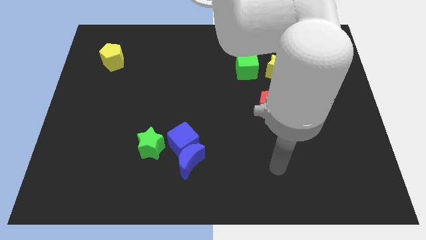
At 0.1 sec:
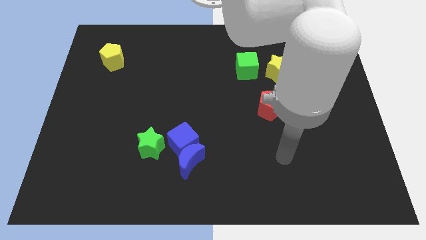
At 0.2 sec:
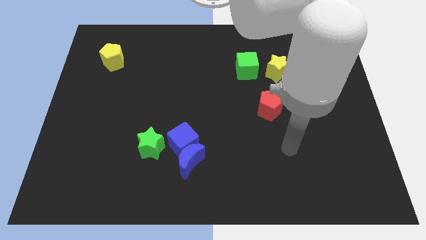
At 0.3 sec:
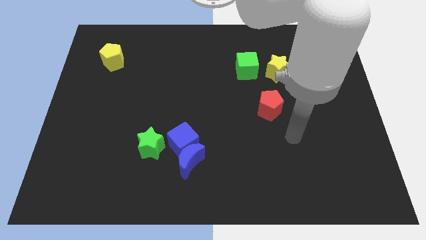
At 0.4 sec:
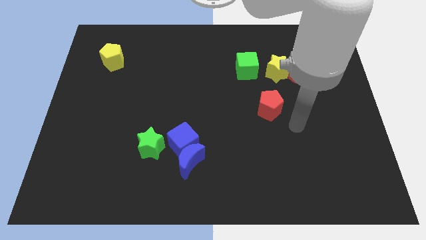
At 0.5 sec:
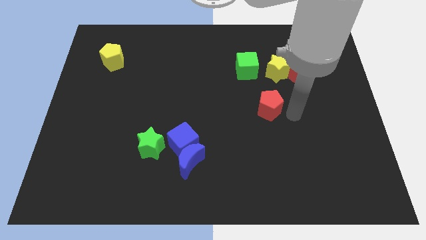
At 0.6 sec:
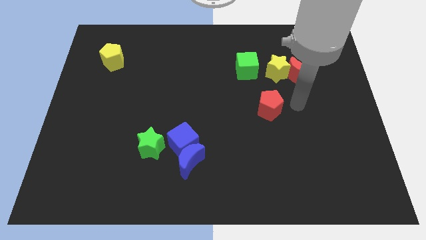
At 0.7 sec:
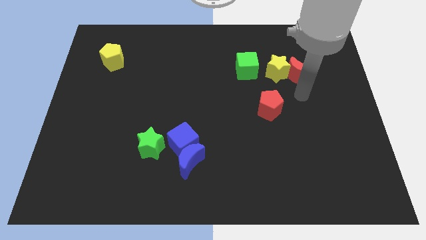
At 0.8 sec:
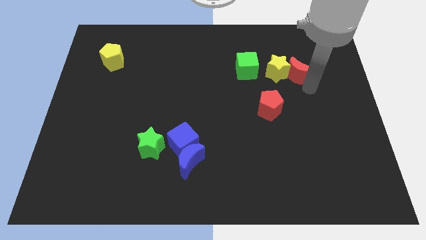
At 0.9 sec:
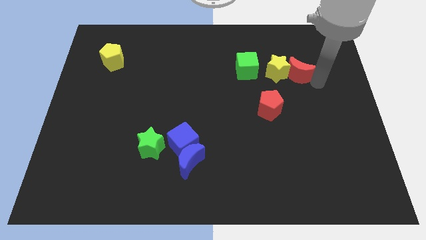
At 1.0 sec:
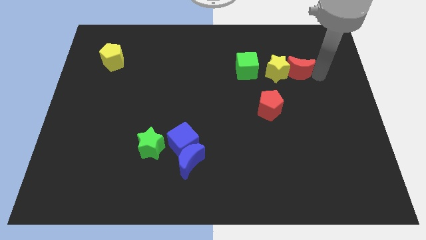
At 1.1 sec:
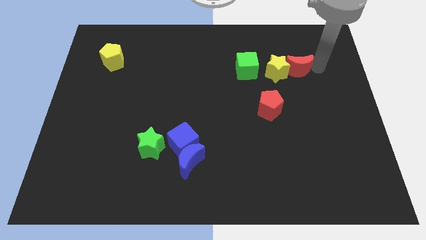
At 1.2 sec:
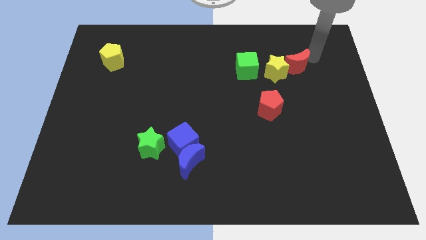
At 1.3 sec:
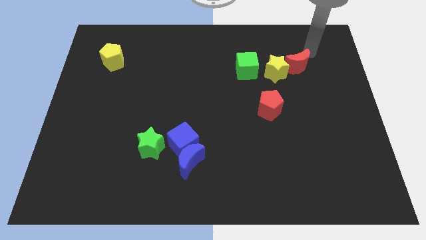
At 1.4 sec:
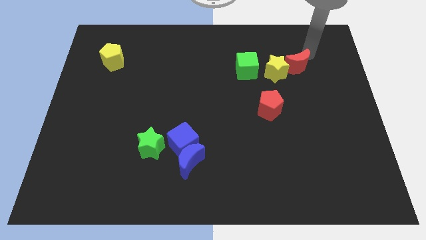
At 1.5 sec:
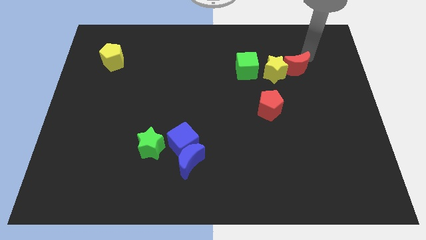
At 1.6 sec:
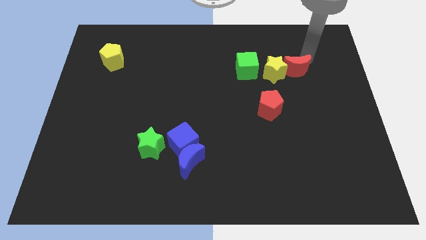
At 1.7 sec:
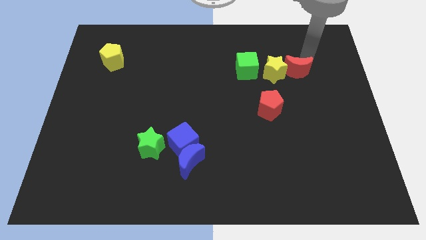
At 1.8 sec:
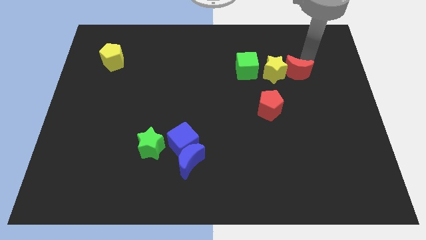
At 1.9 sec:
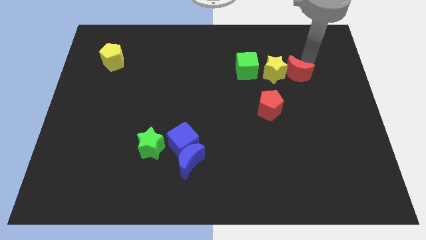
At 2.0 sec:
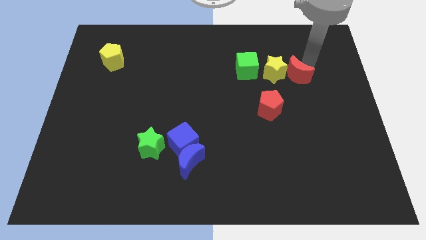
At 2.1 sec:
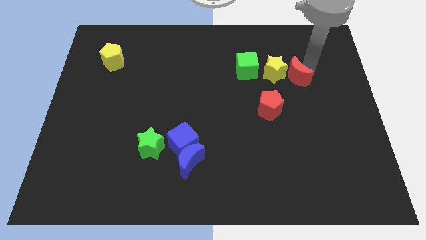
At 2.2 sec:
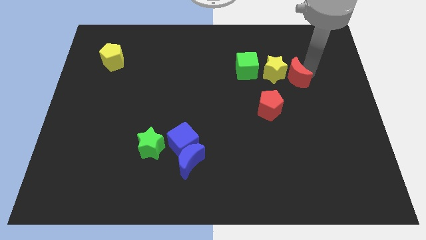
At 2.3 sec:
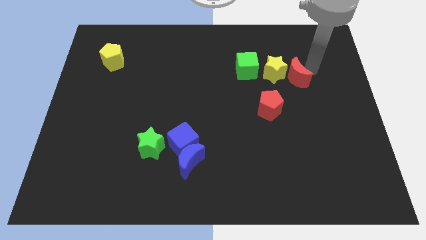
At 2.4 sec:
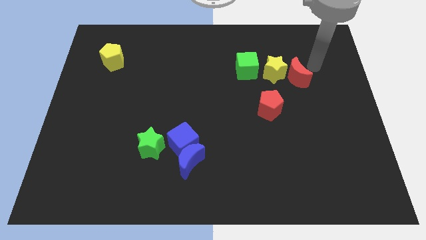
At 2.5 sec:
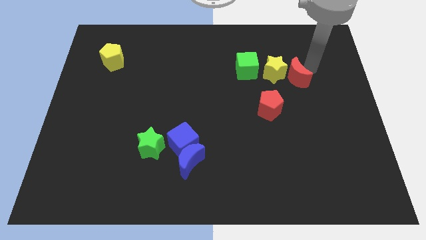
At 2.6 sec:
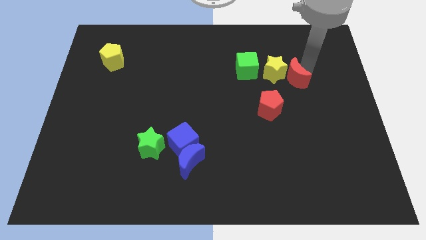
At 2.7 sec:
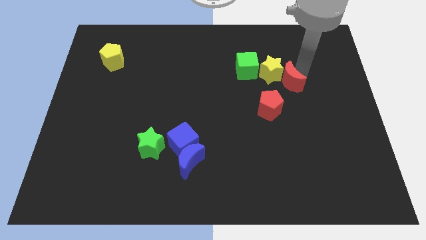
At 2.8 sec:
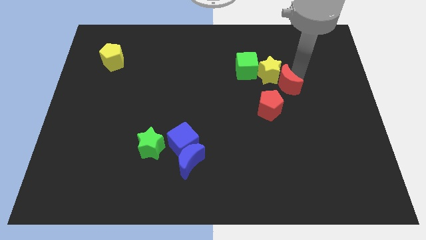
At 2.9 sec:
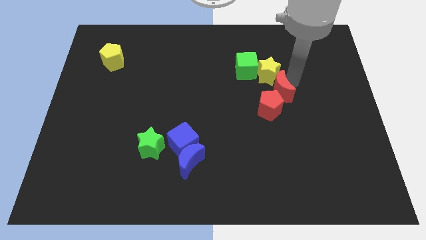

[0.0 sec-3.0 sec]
move the red moon a little bit down and then left

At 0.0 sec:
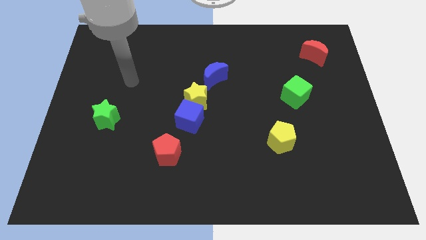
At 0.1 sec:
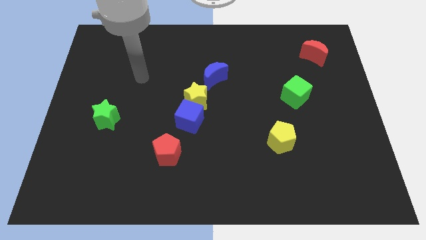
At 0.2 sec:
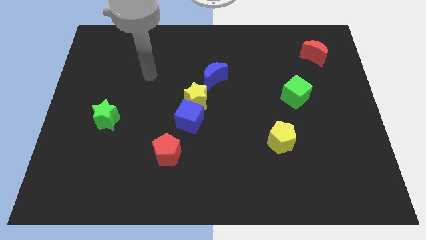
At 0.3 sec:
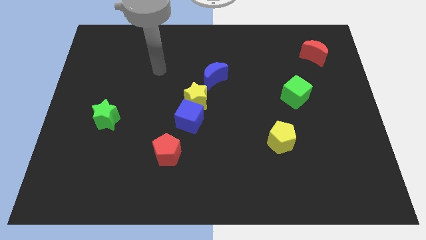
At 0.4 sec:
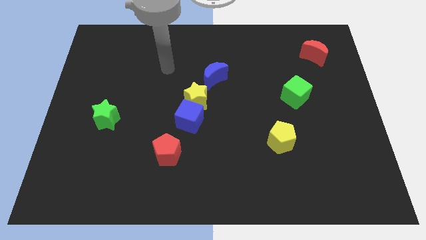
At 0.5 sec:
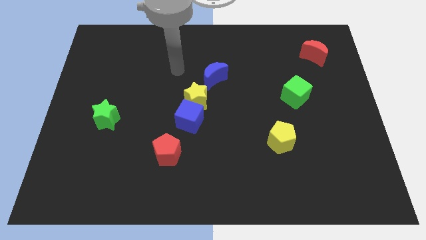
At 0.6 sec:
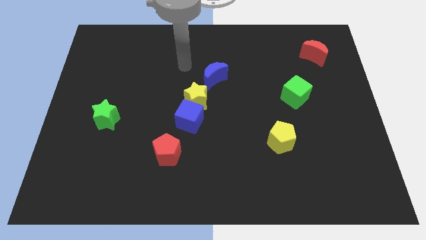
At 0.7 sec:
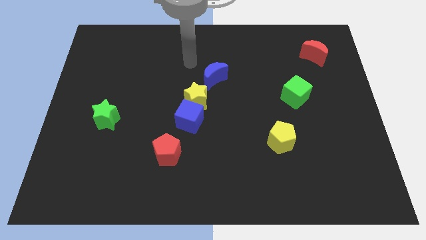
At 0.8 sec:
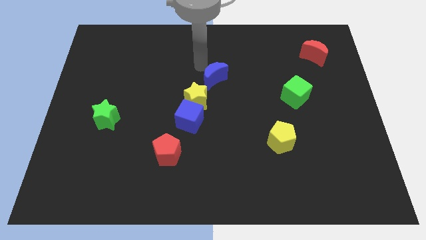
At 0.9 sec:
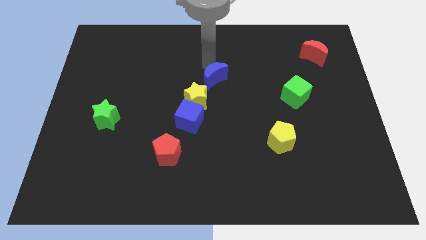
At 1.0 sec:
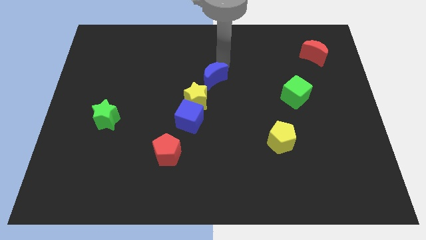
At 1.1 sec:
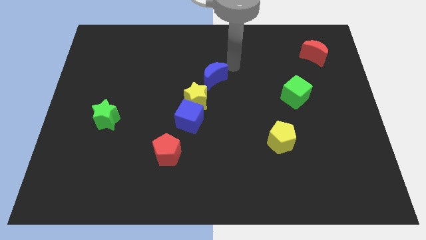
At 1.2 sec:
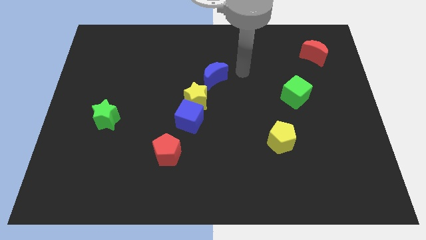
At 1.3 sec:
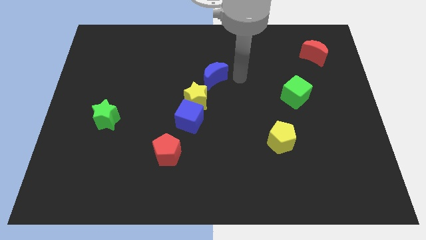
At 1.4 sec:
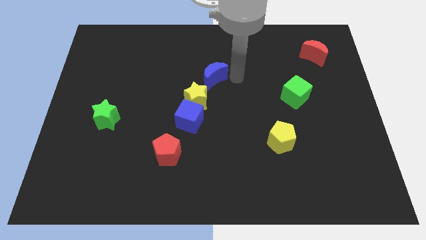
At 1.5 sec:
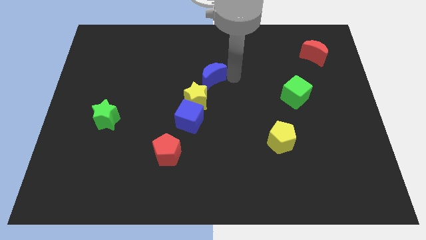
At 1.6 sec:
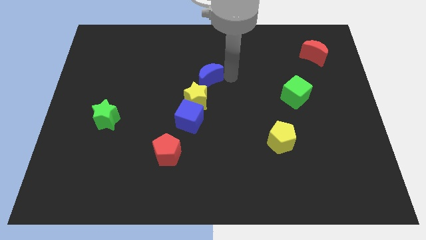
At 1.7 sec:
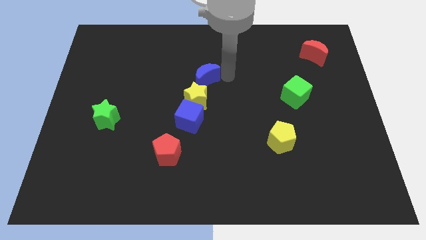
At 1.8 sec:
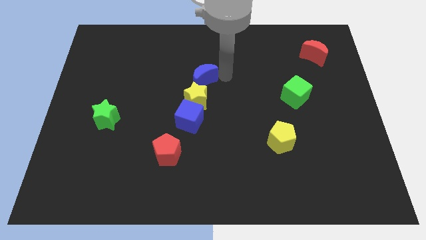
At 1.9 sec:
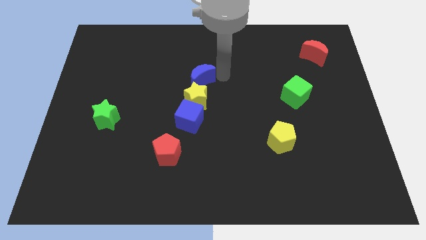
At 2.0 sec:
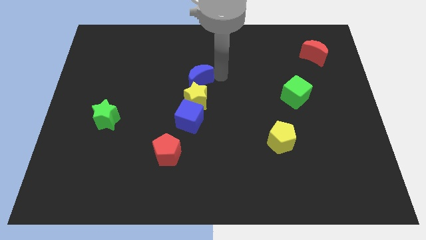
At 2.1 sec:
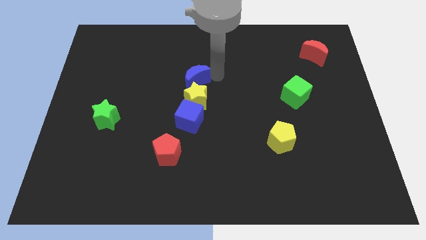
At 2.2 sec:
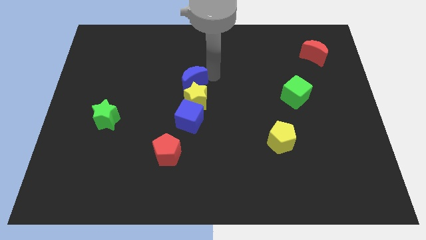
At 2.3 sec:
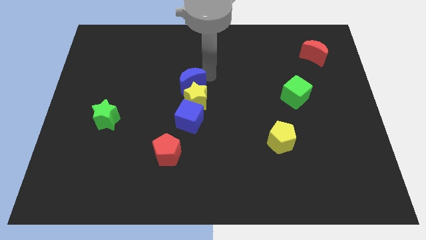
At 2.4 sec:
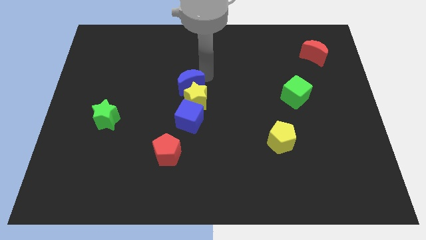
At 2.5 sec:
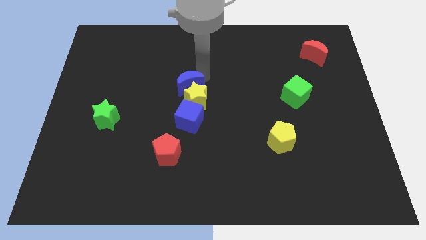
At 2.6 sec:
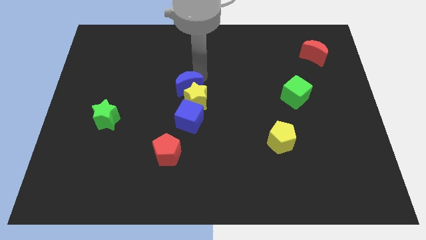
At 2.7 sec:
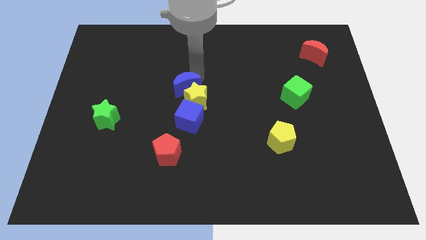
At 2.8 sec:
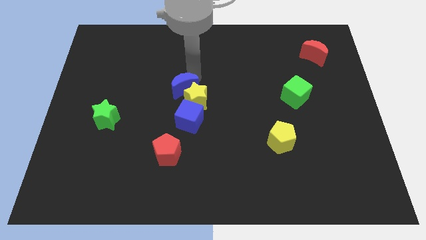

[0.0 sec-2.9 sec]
slightly move the blue moon left

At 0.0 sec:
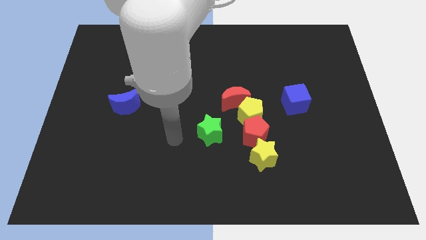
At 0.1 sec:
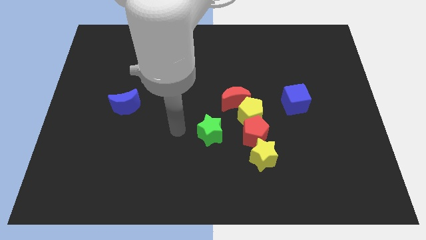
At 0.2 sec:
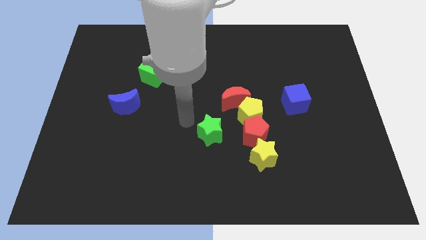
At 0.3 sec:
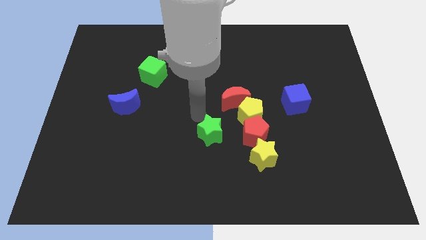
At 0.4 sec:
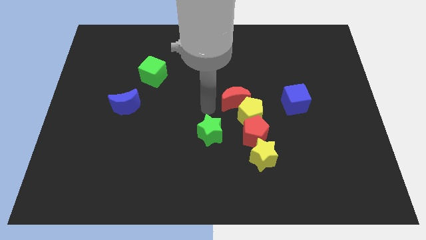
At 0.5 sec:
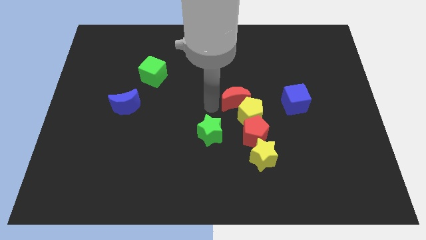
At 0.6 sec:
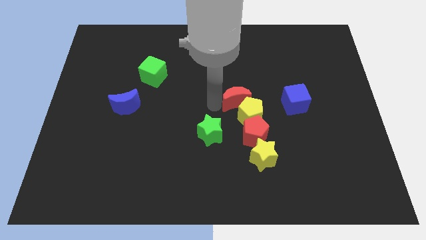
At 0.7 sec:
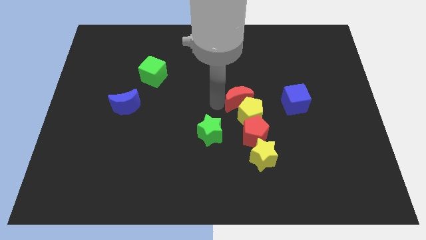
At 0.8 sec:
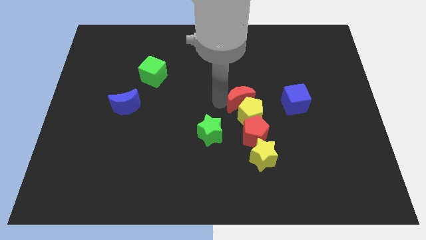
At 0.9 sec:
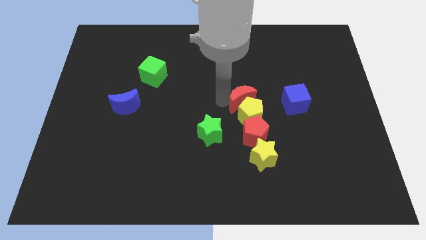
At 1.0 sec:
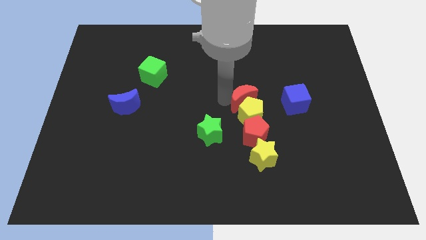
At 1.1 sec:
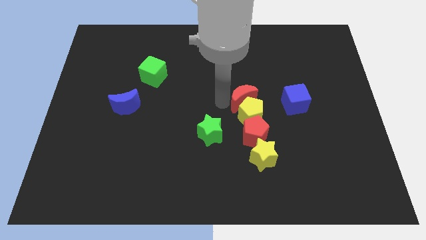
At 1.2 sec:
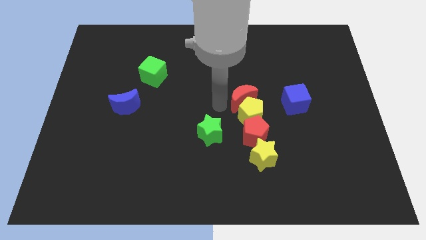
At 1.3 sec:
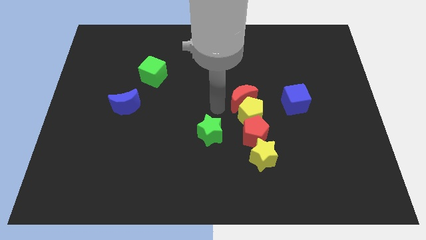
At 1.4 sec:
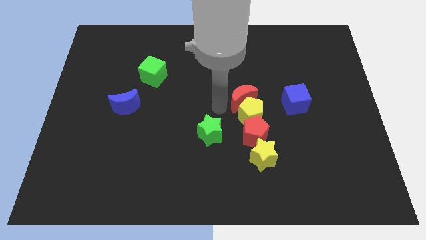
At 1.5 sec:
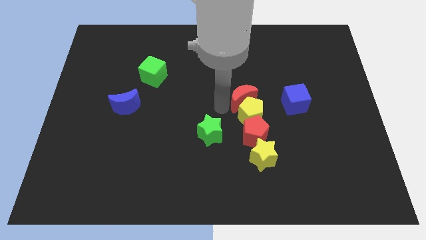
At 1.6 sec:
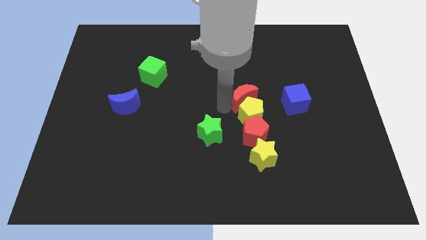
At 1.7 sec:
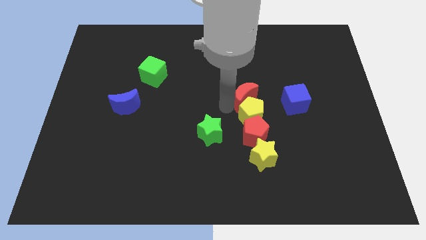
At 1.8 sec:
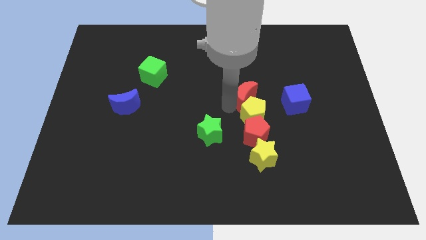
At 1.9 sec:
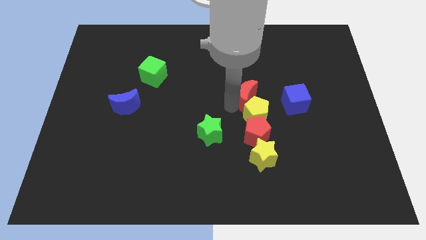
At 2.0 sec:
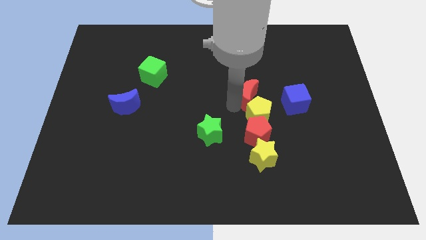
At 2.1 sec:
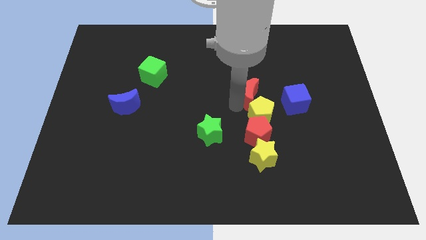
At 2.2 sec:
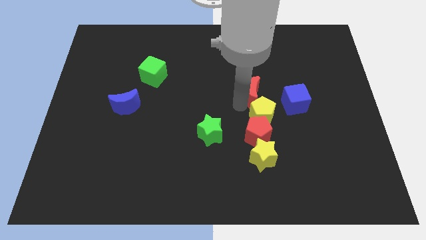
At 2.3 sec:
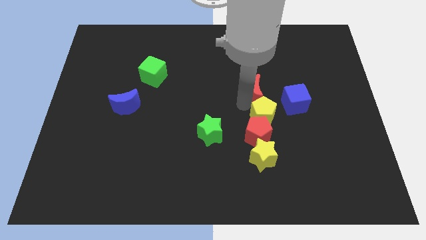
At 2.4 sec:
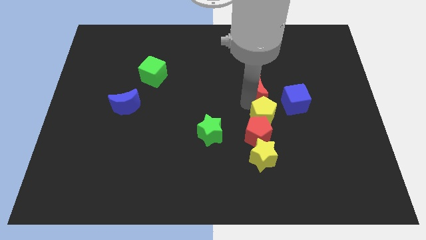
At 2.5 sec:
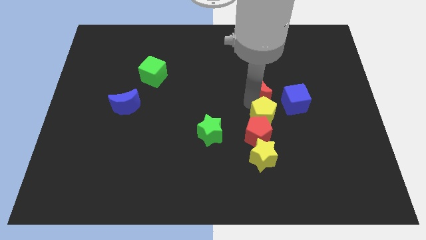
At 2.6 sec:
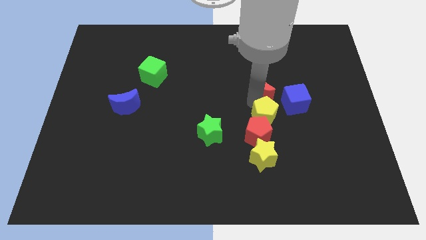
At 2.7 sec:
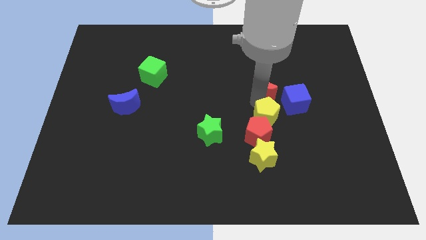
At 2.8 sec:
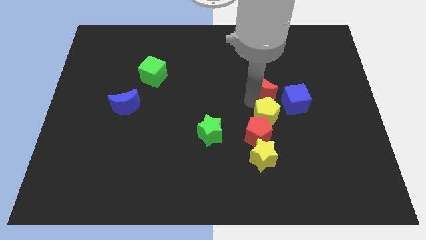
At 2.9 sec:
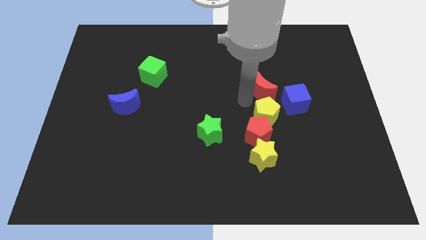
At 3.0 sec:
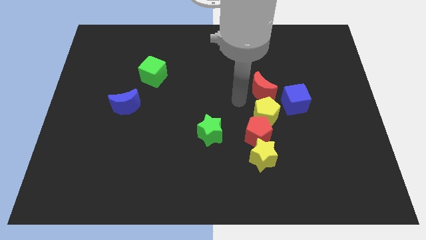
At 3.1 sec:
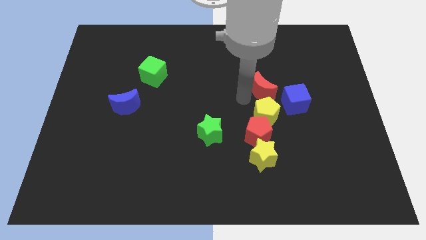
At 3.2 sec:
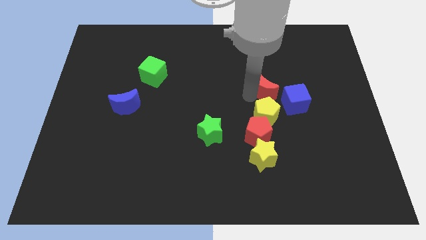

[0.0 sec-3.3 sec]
move the red moon right somewhat
